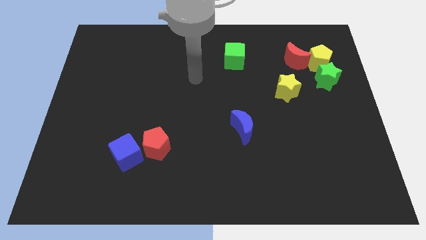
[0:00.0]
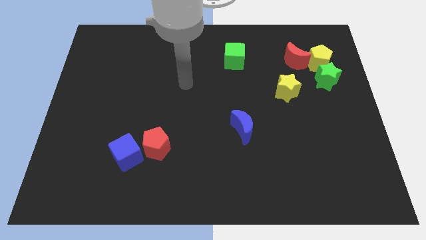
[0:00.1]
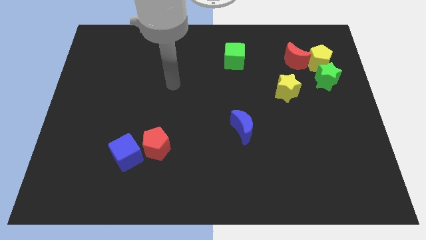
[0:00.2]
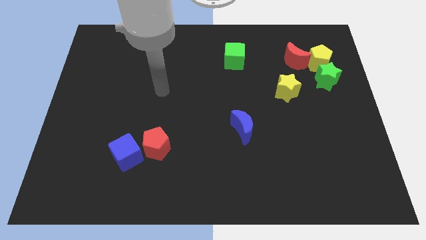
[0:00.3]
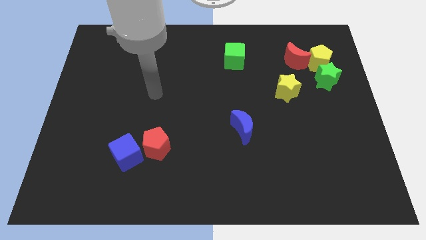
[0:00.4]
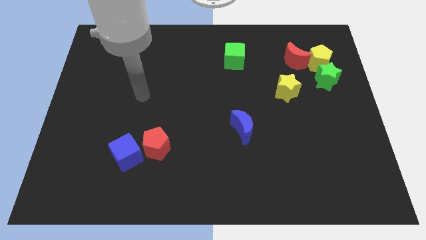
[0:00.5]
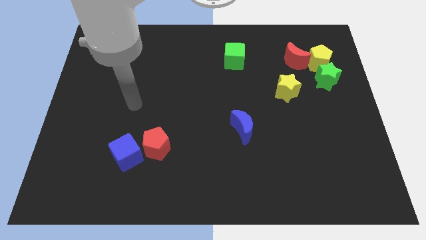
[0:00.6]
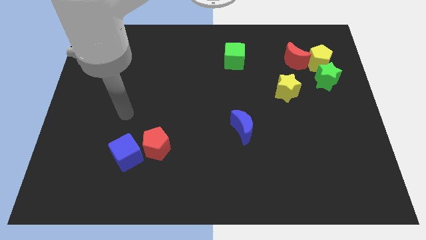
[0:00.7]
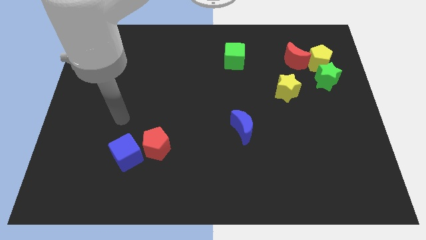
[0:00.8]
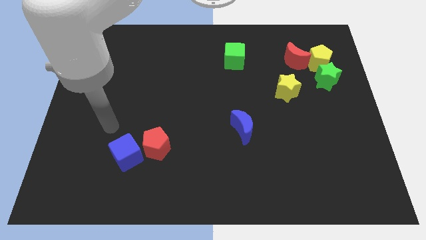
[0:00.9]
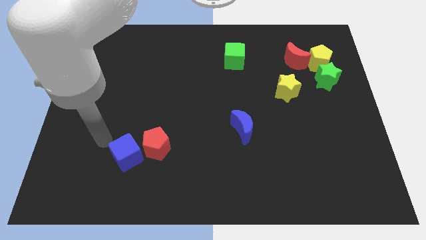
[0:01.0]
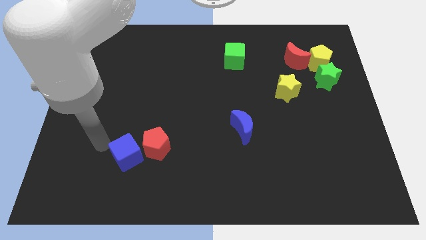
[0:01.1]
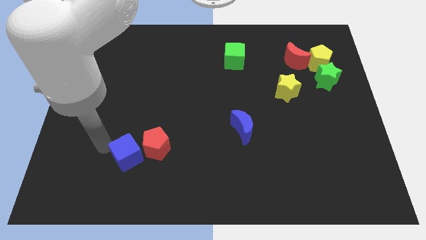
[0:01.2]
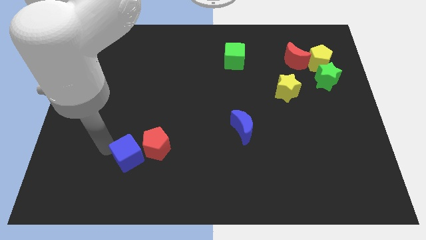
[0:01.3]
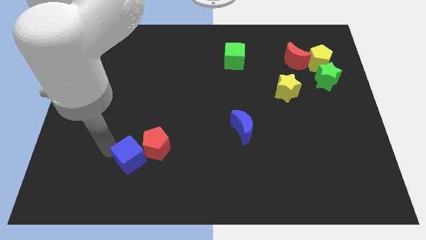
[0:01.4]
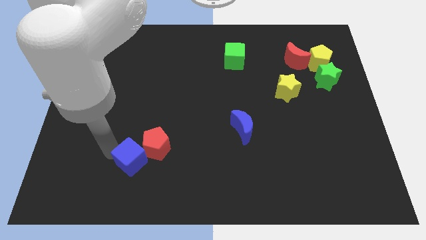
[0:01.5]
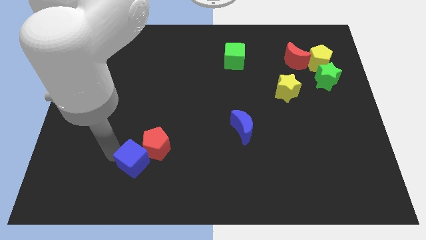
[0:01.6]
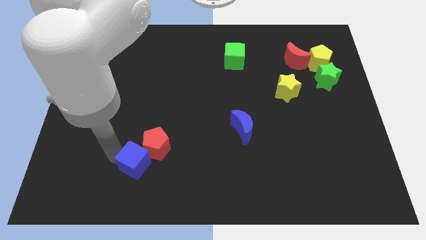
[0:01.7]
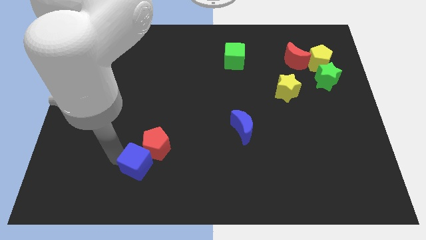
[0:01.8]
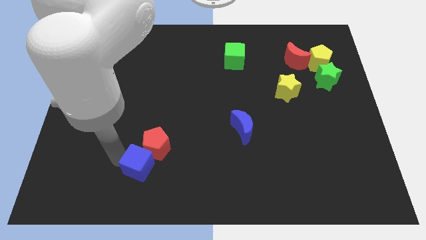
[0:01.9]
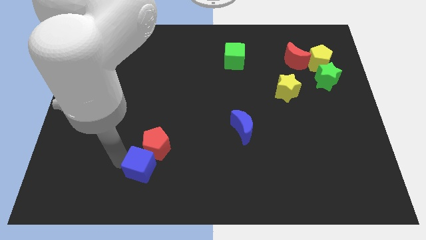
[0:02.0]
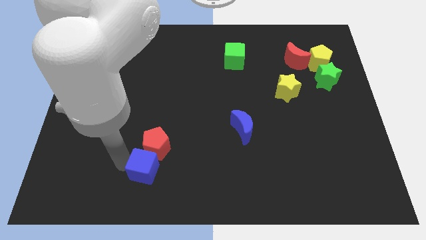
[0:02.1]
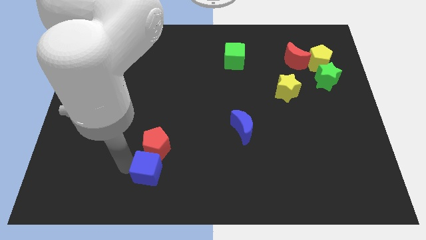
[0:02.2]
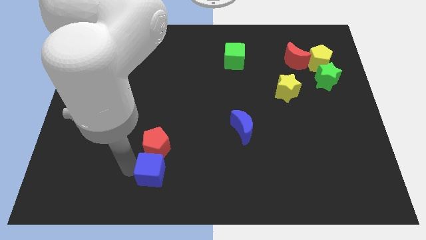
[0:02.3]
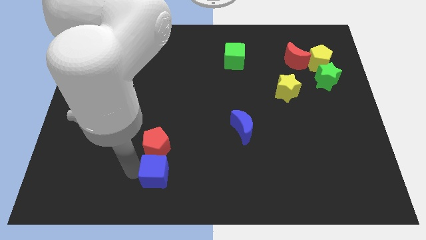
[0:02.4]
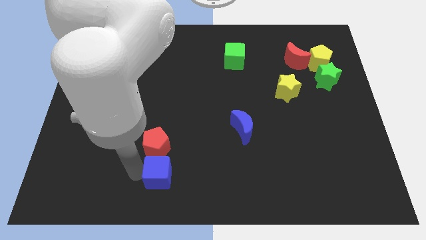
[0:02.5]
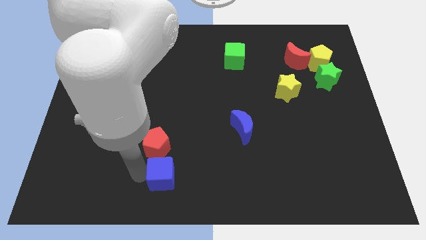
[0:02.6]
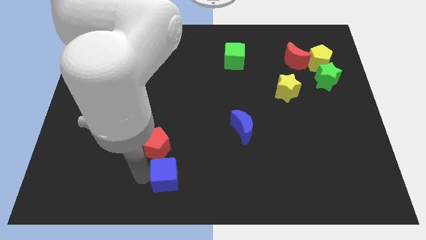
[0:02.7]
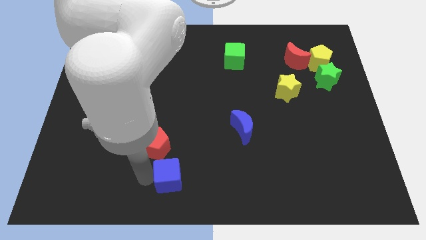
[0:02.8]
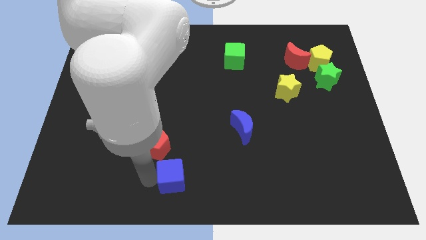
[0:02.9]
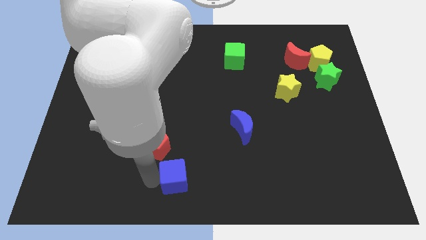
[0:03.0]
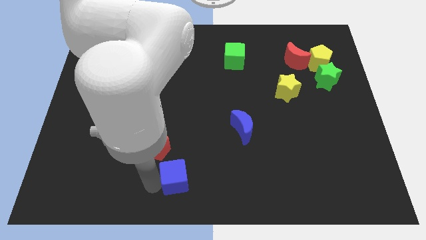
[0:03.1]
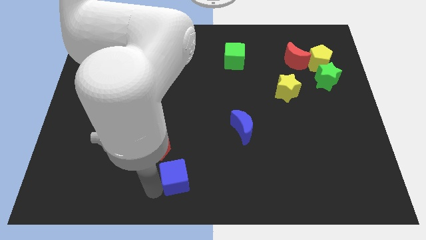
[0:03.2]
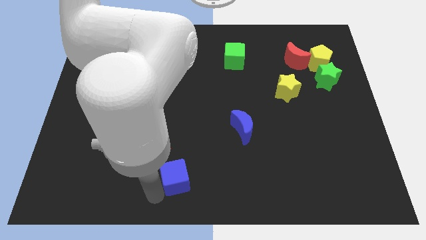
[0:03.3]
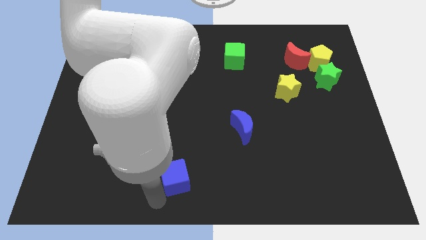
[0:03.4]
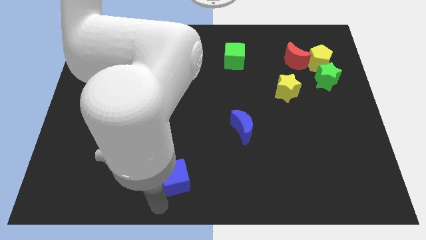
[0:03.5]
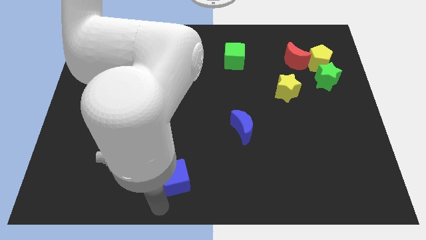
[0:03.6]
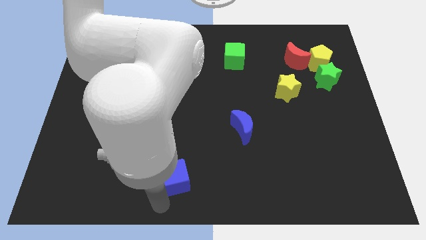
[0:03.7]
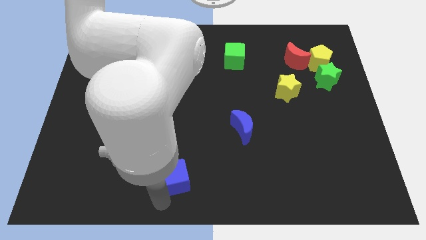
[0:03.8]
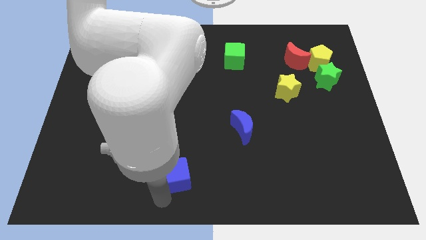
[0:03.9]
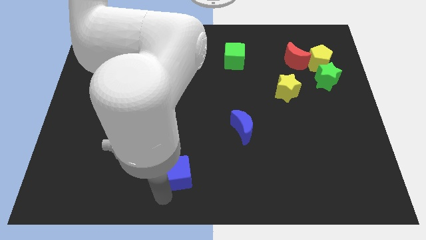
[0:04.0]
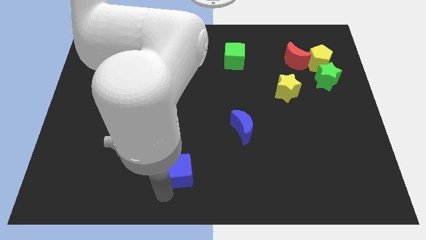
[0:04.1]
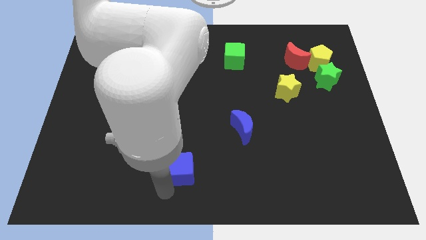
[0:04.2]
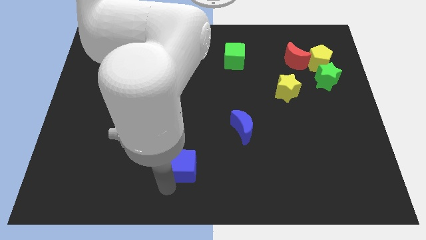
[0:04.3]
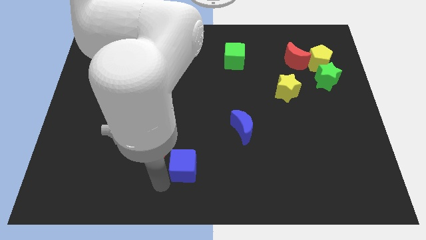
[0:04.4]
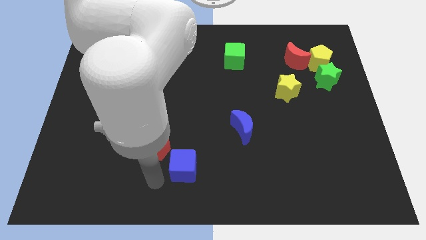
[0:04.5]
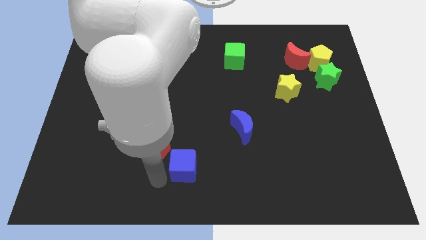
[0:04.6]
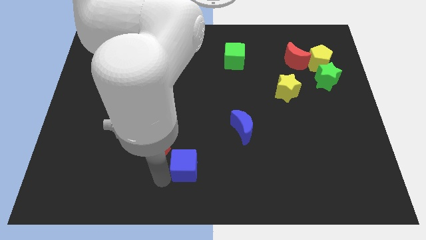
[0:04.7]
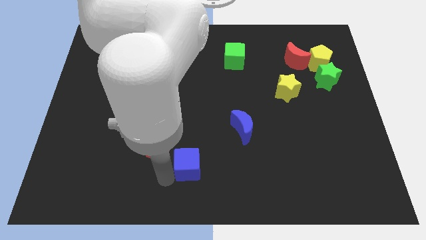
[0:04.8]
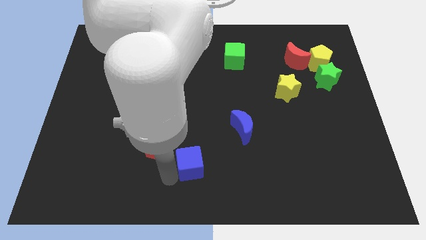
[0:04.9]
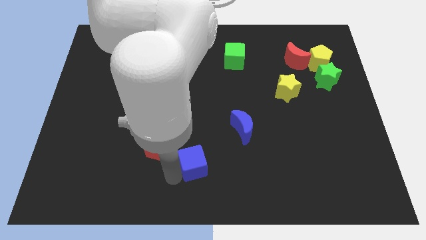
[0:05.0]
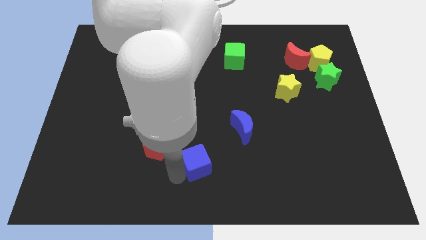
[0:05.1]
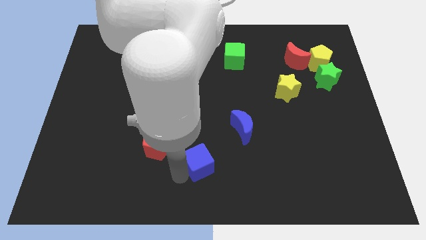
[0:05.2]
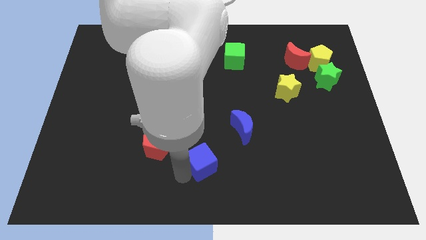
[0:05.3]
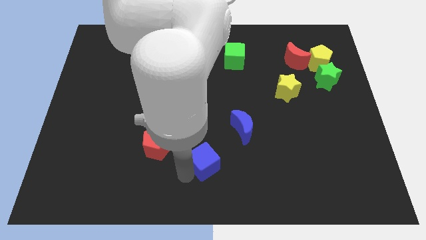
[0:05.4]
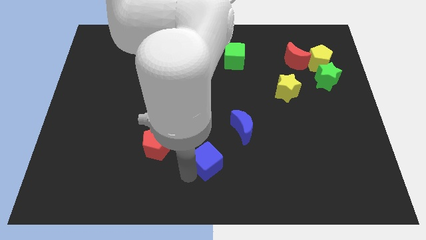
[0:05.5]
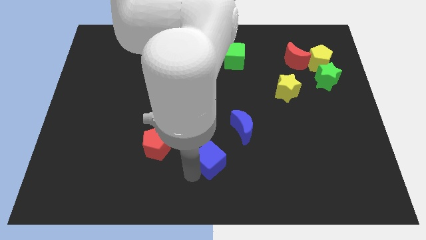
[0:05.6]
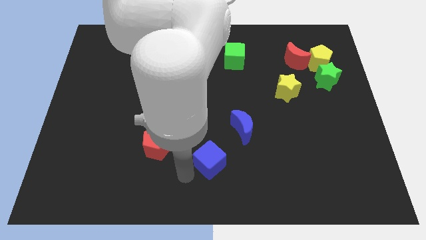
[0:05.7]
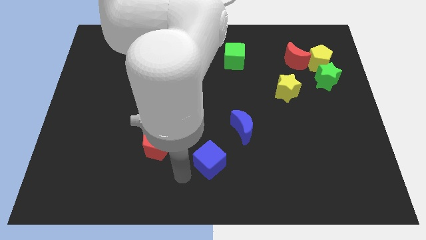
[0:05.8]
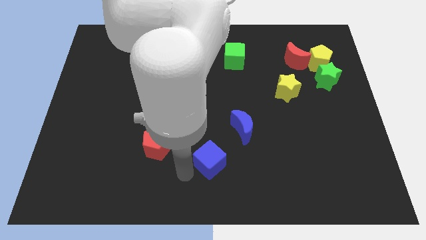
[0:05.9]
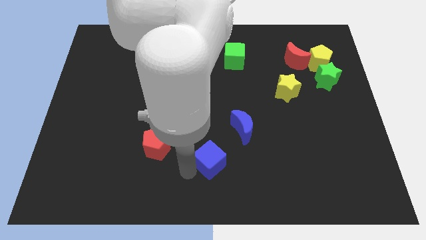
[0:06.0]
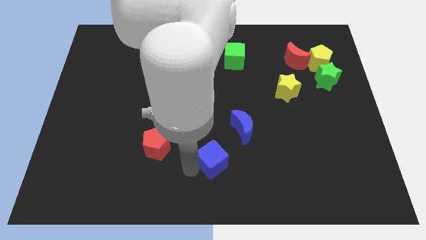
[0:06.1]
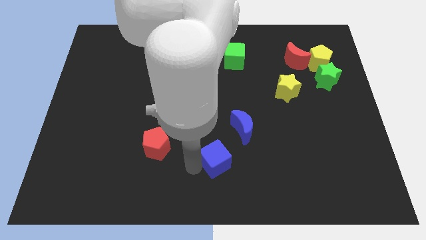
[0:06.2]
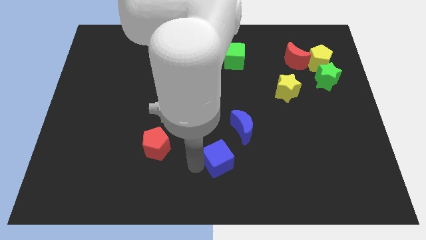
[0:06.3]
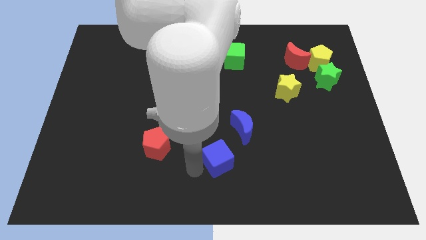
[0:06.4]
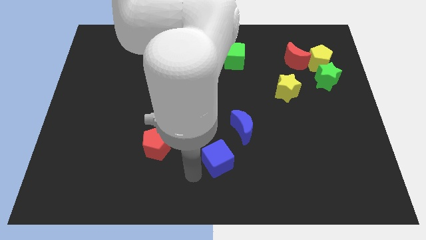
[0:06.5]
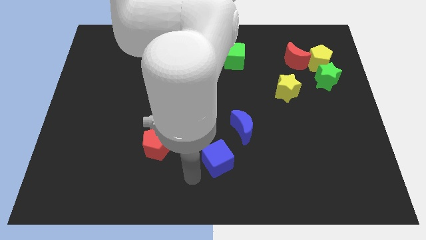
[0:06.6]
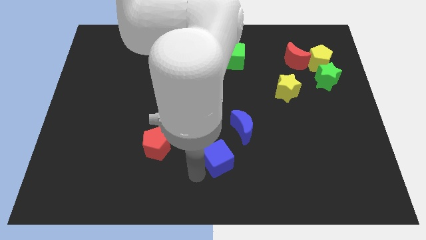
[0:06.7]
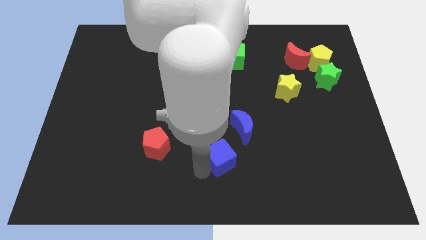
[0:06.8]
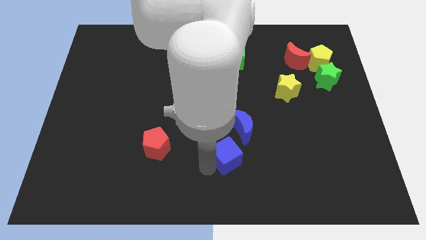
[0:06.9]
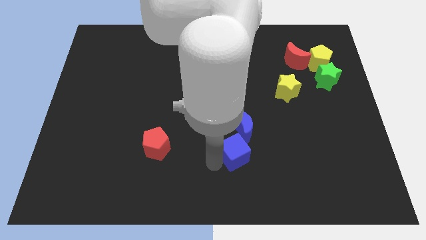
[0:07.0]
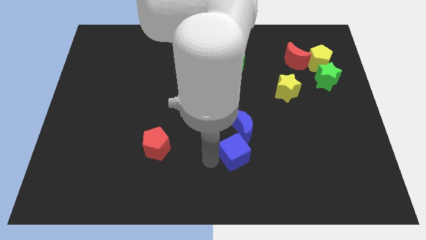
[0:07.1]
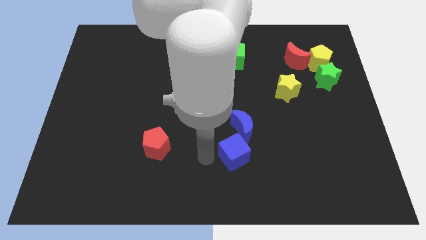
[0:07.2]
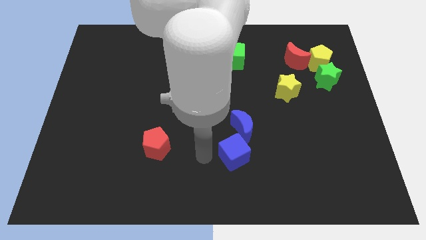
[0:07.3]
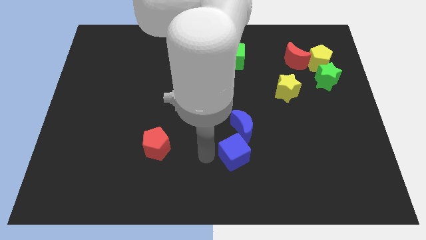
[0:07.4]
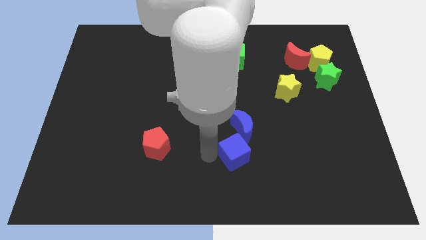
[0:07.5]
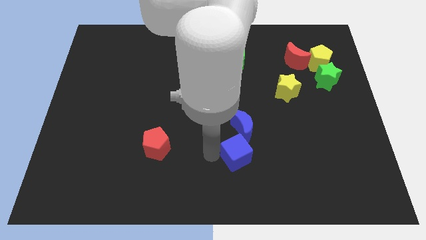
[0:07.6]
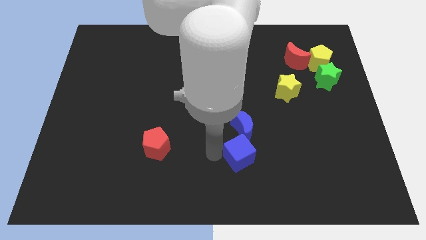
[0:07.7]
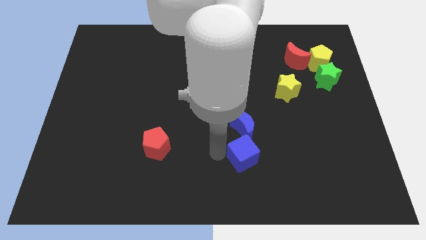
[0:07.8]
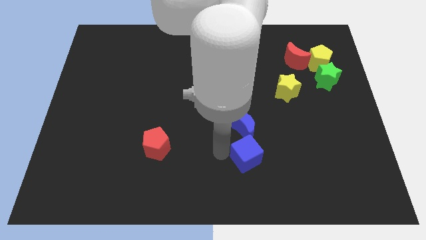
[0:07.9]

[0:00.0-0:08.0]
put the blue cube to the bottom right side of the blue moon

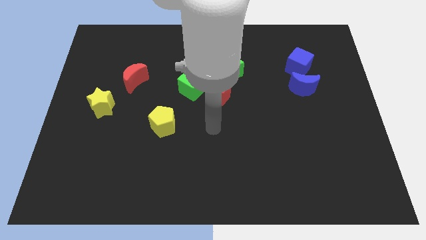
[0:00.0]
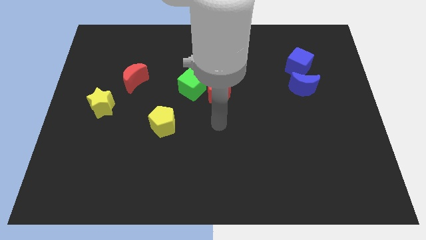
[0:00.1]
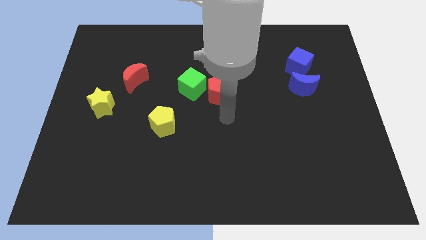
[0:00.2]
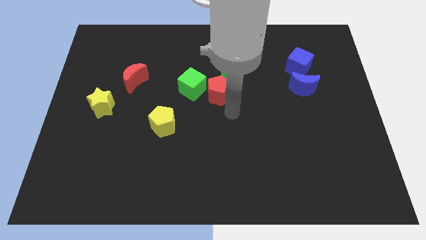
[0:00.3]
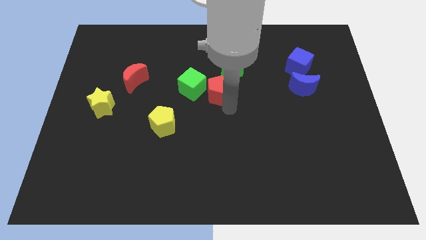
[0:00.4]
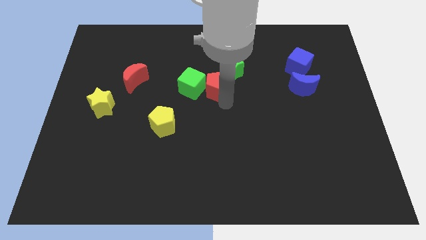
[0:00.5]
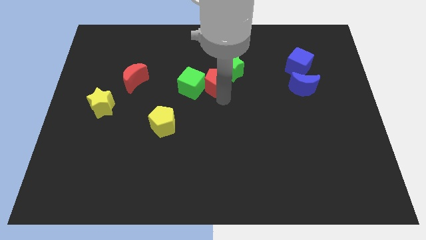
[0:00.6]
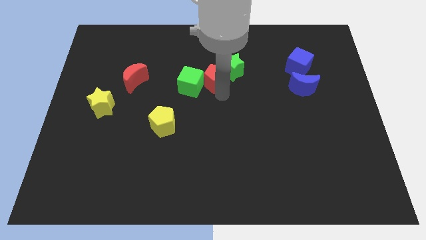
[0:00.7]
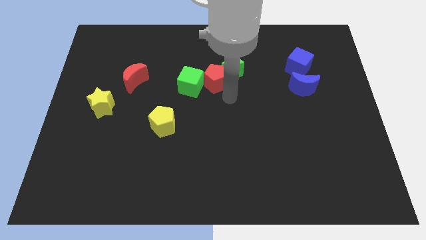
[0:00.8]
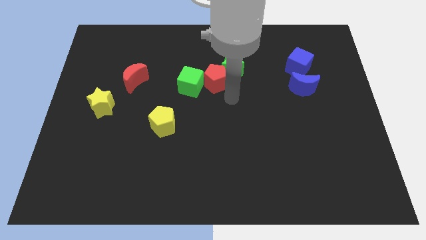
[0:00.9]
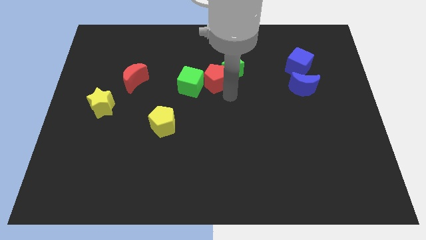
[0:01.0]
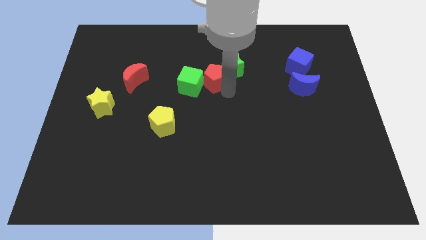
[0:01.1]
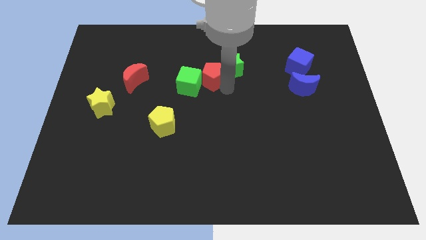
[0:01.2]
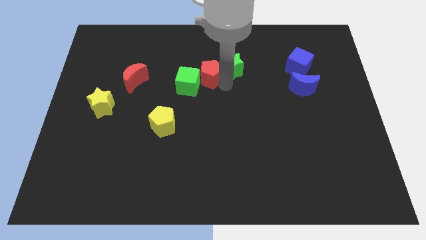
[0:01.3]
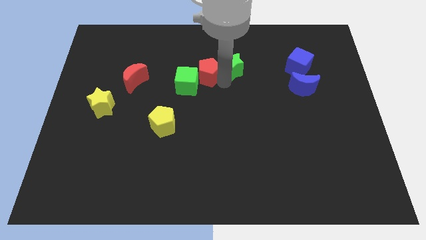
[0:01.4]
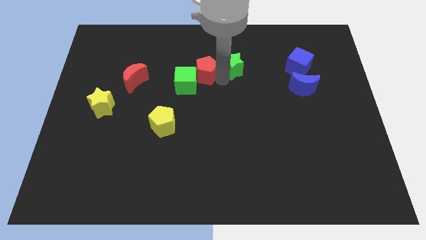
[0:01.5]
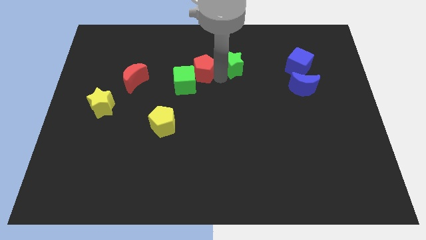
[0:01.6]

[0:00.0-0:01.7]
slide the red pentagon above the green cube
